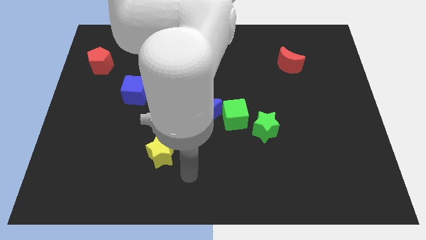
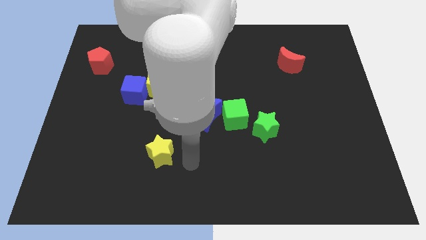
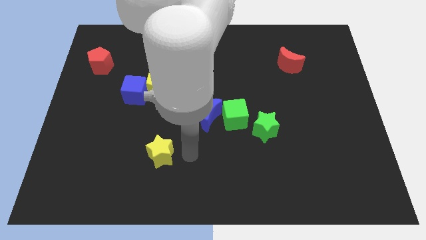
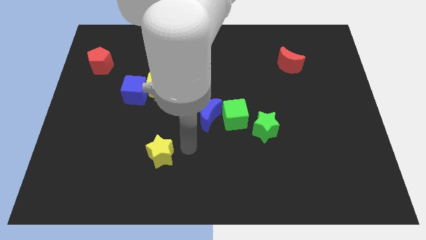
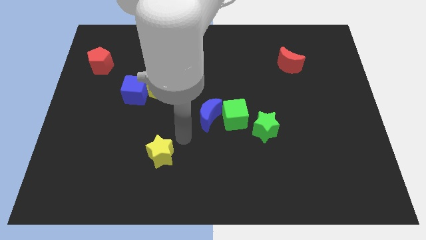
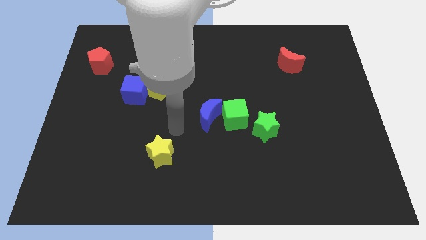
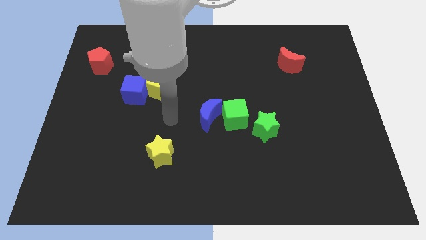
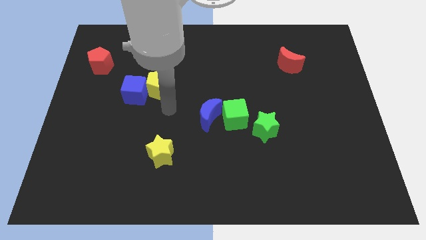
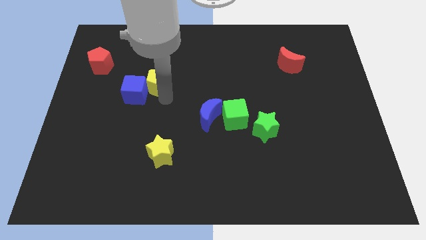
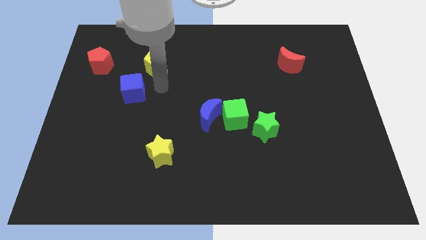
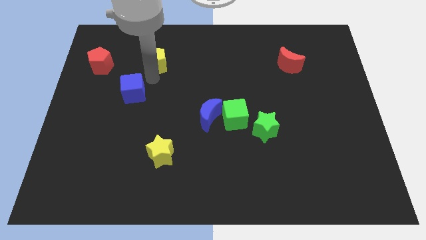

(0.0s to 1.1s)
separate the blue cube from the yellow pentagon

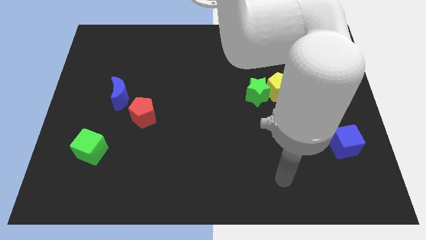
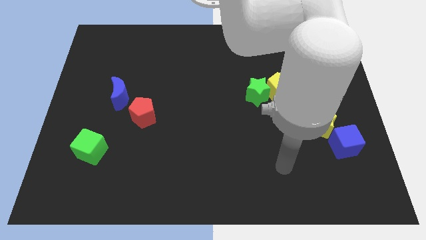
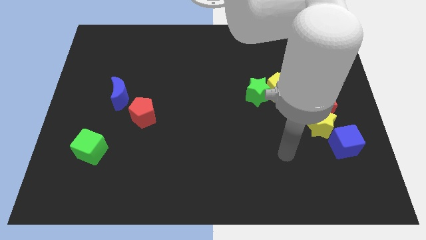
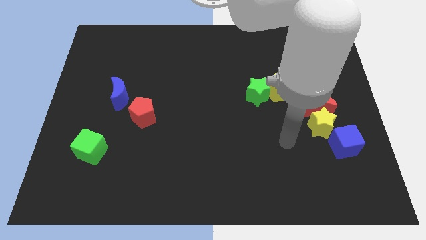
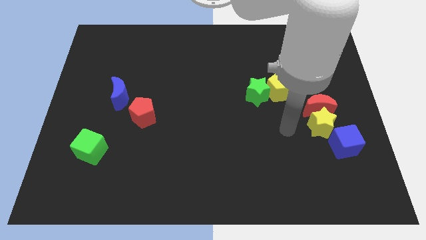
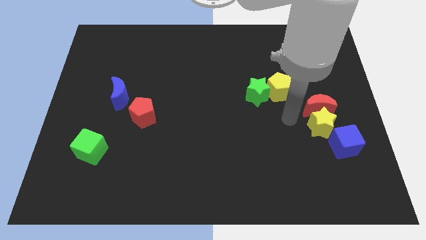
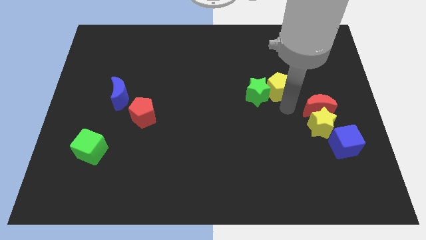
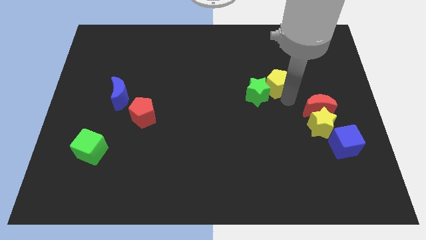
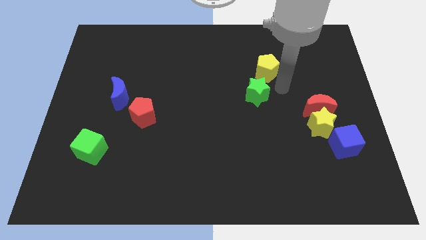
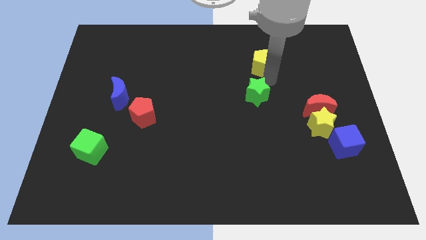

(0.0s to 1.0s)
pull the green star apart from the yellow pentagon

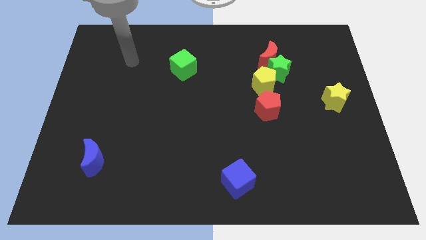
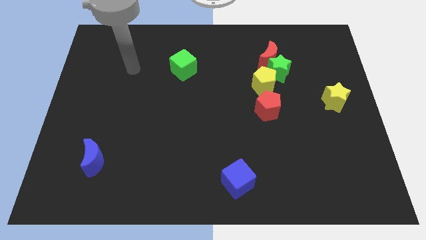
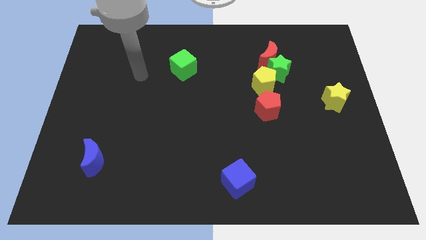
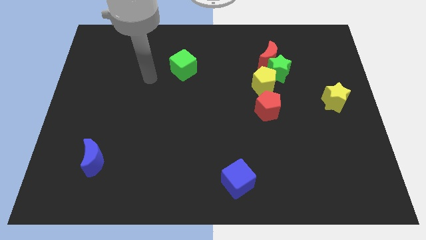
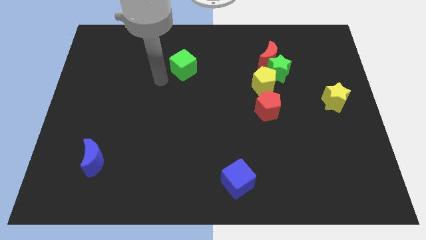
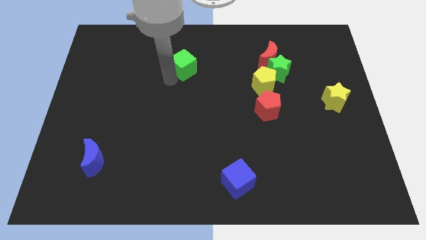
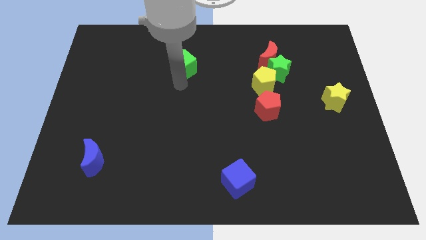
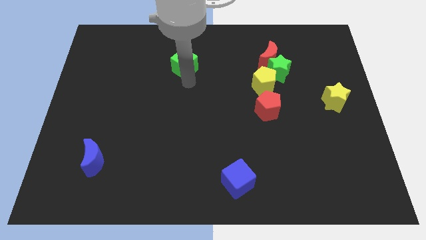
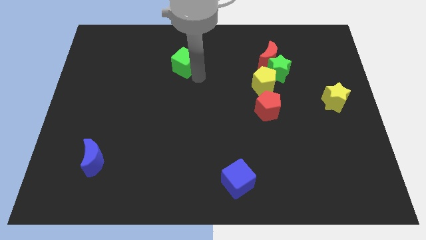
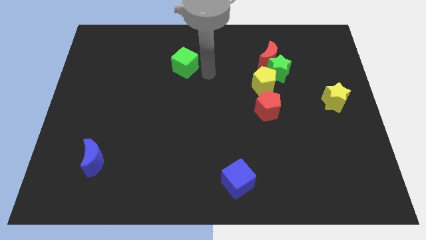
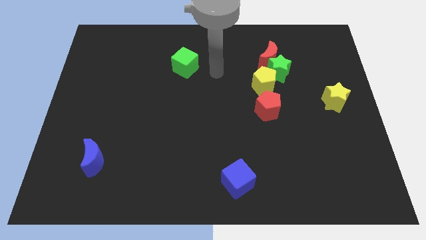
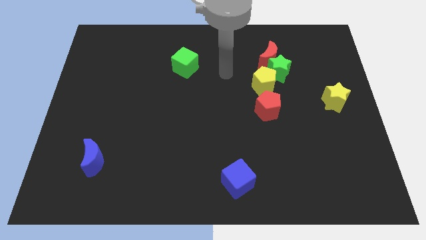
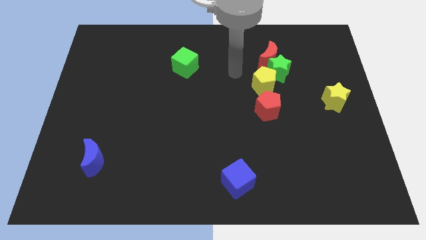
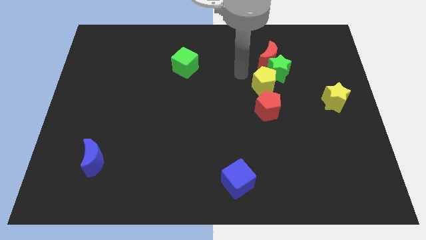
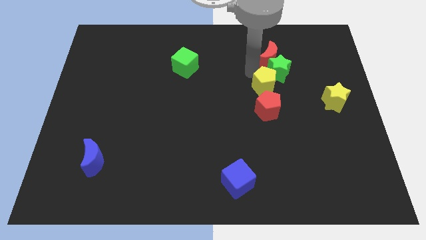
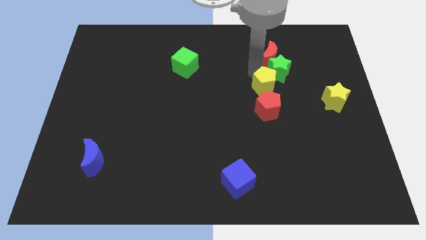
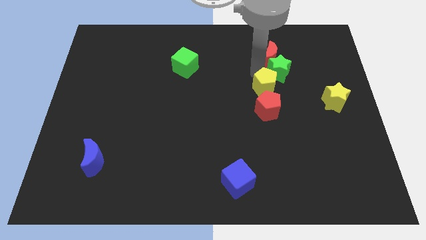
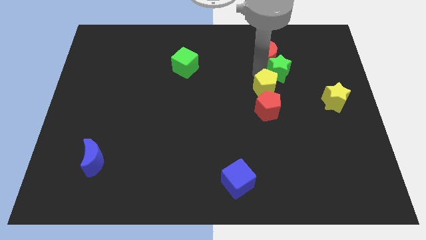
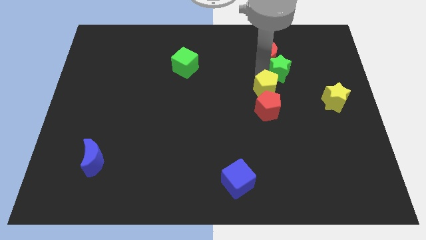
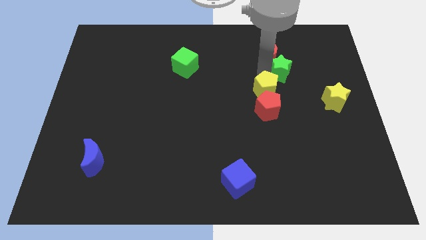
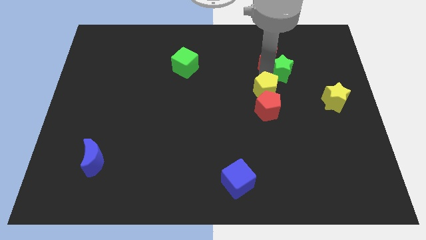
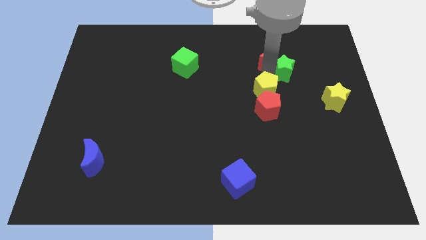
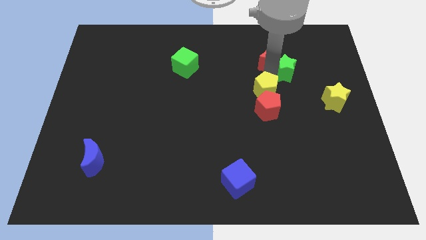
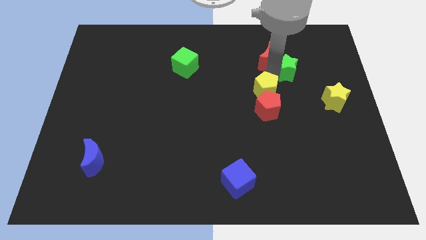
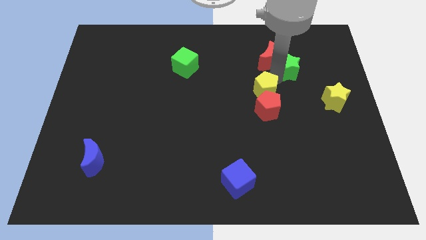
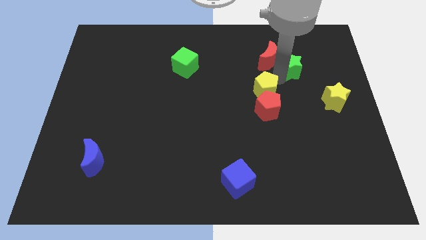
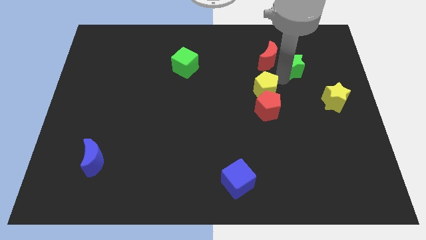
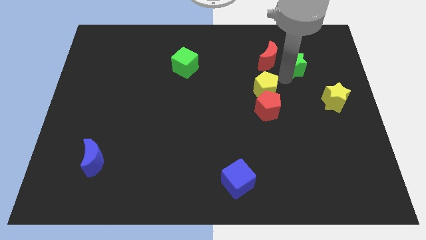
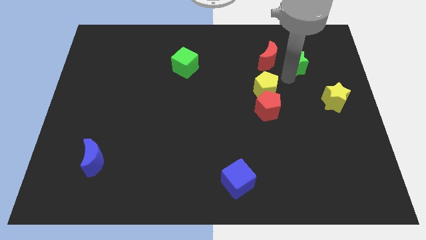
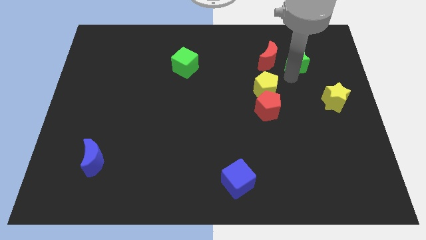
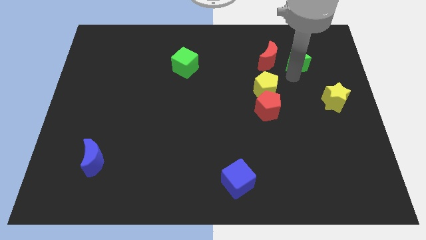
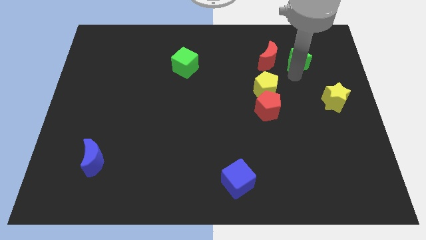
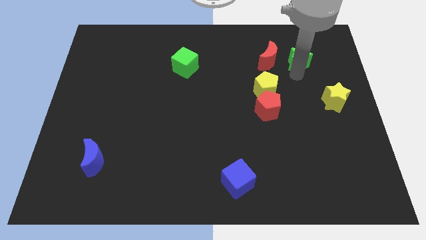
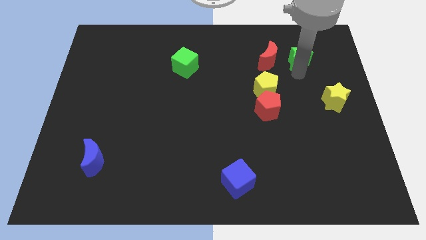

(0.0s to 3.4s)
separate the green star from the red moon and yellow pentagon

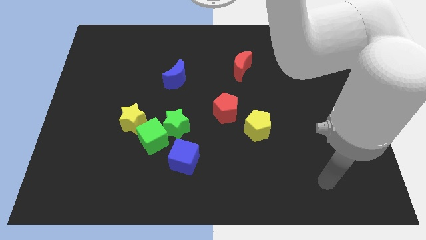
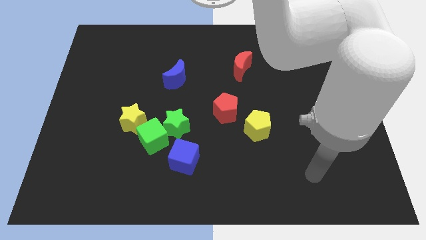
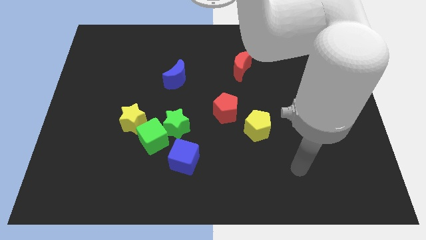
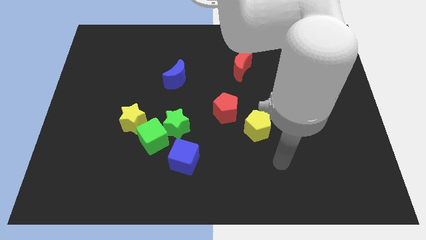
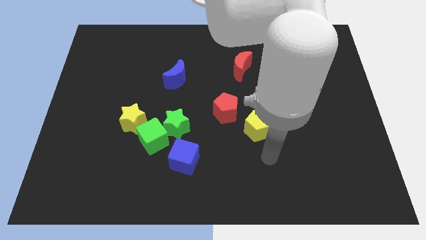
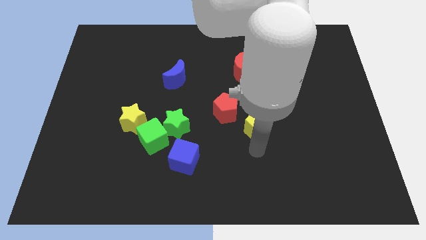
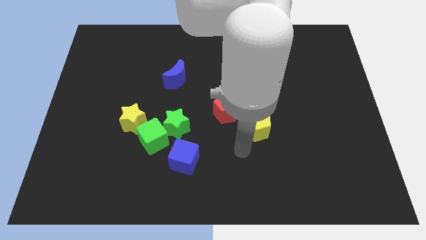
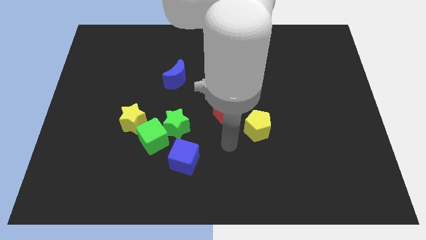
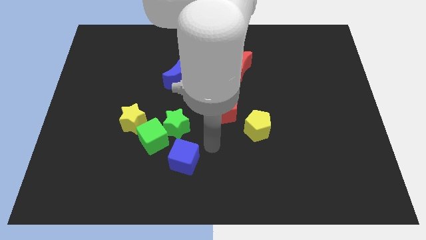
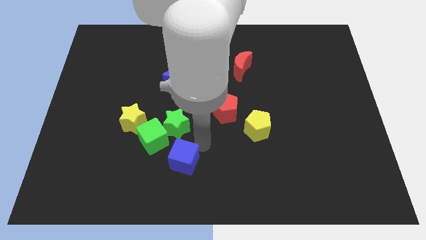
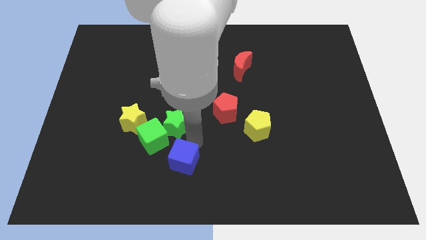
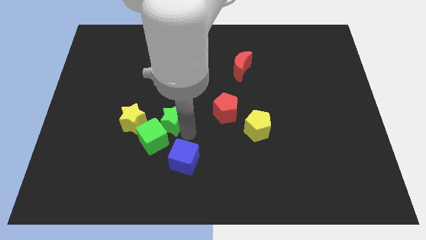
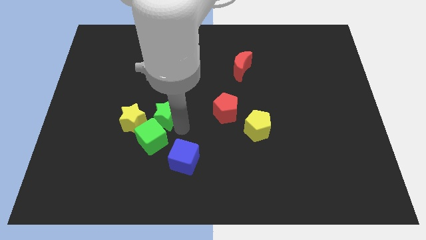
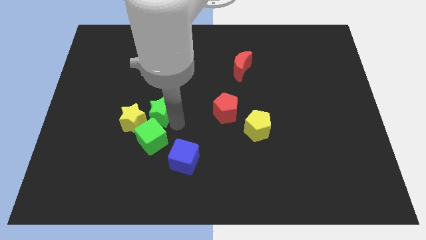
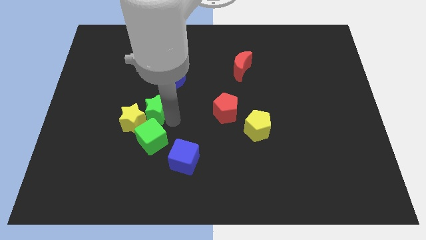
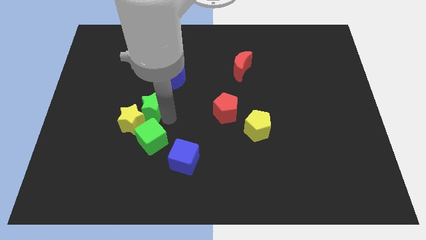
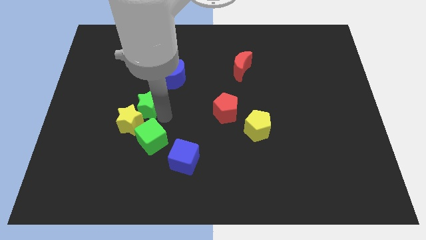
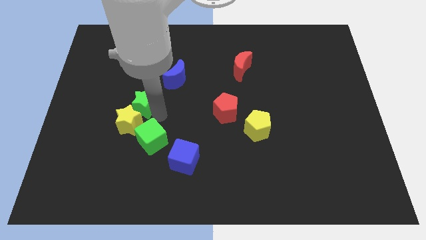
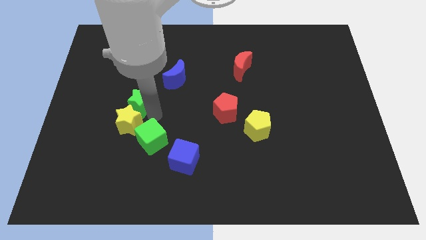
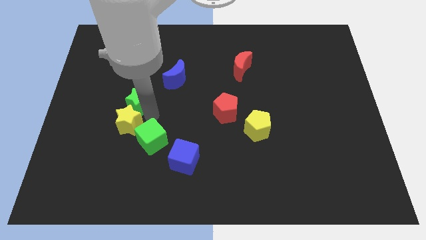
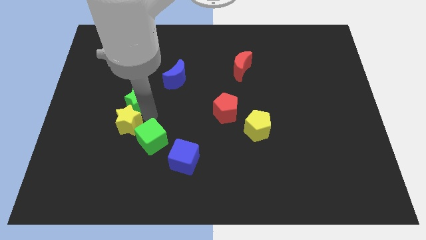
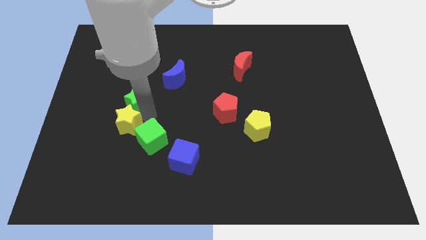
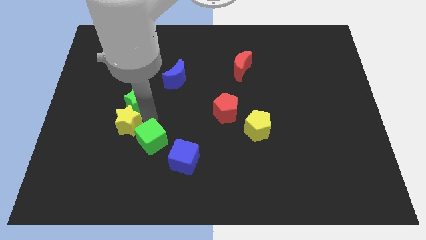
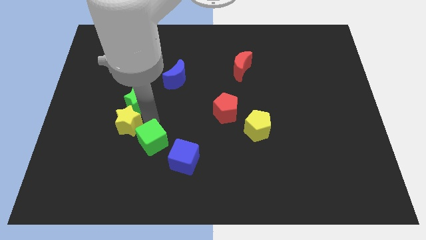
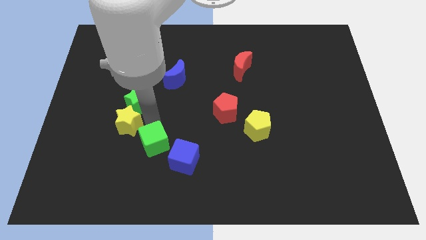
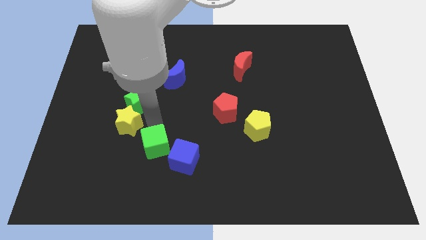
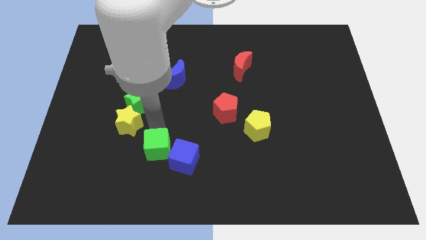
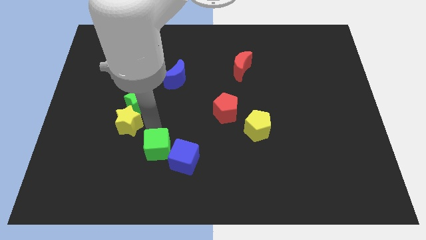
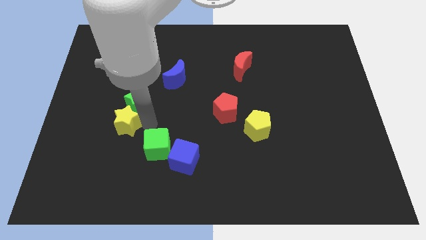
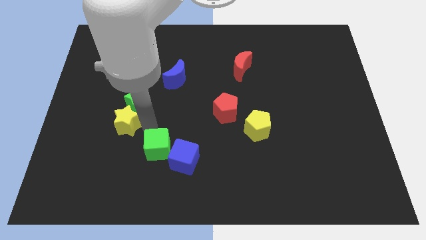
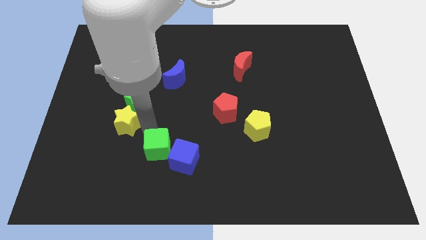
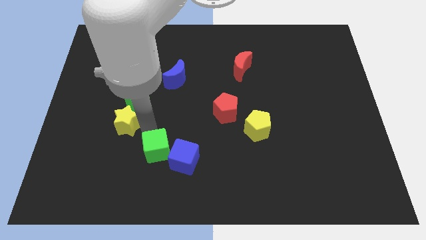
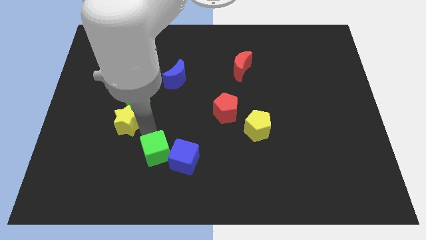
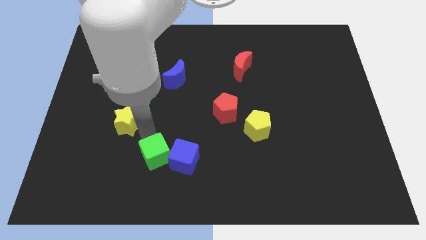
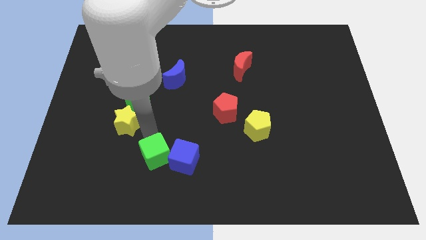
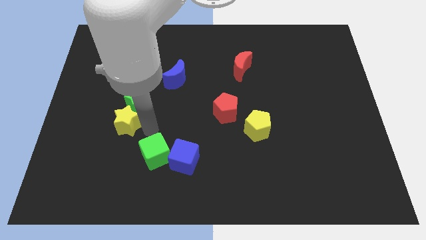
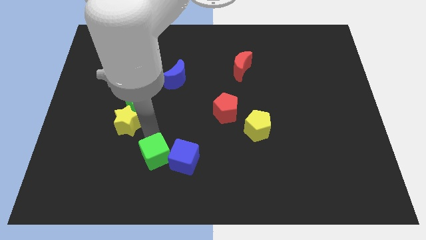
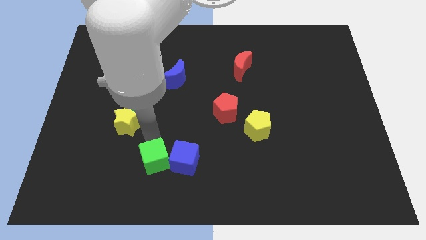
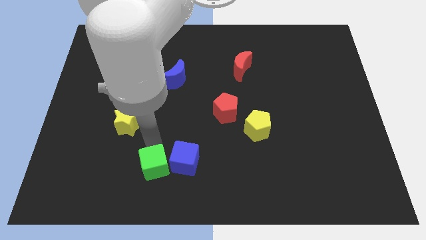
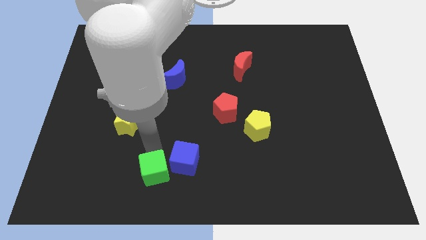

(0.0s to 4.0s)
move the green cube away from the group of blocks
